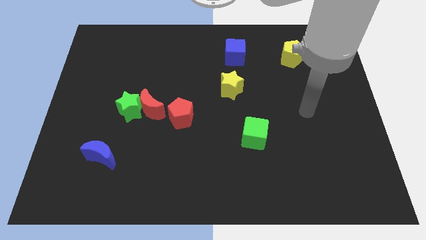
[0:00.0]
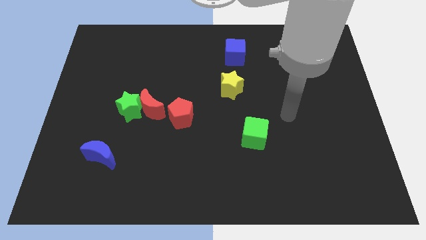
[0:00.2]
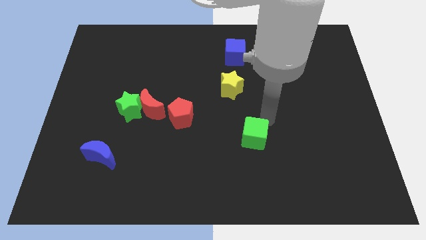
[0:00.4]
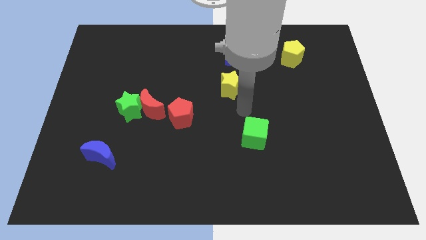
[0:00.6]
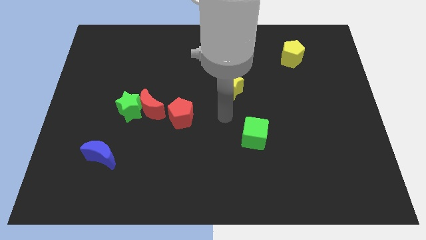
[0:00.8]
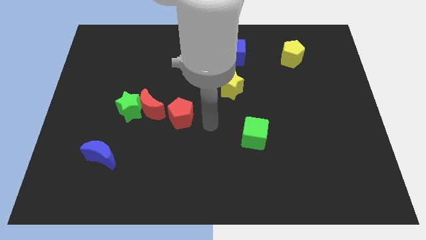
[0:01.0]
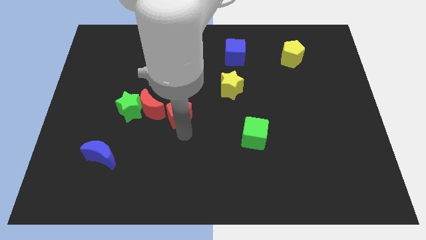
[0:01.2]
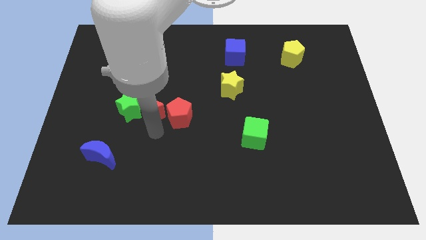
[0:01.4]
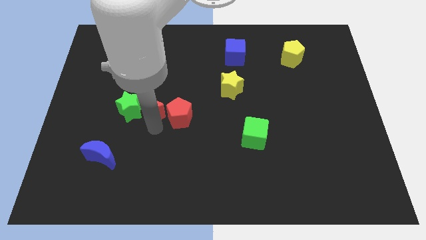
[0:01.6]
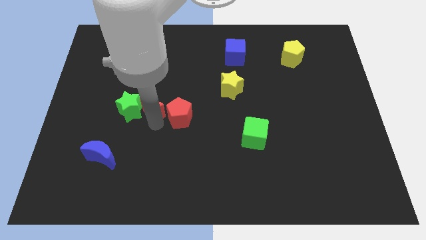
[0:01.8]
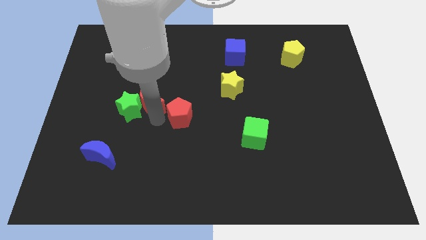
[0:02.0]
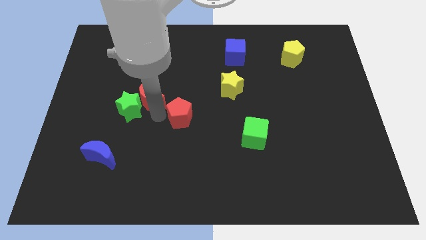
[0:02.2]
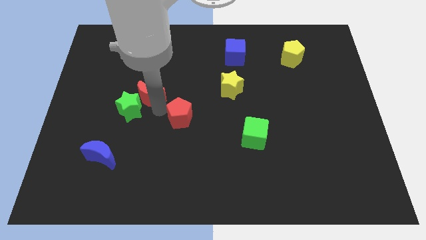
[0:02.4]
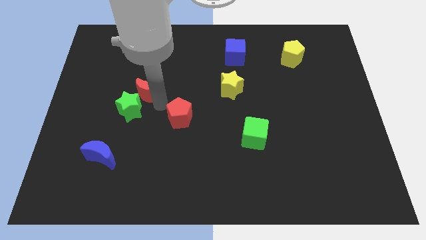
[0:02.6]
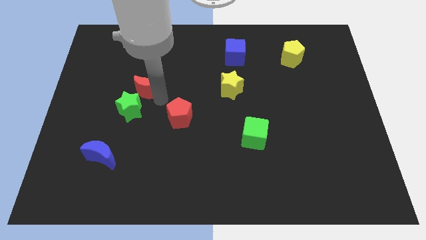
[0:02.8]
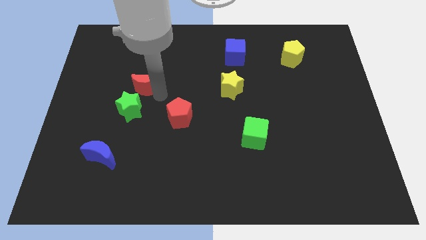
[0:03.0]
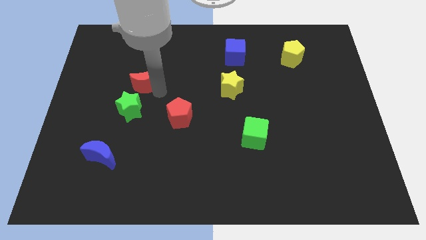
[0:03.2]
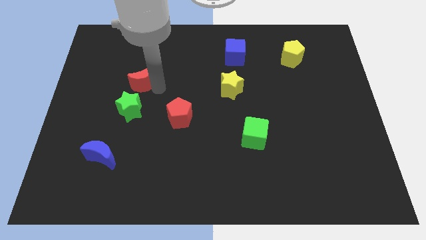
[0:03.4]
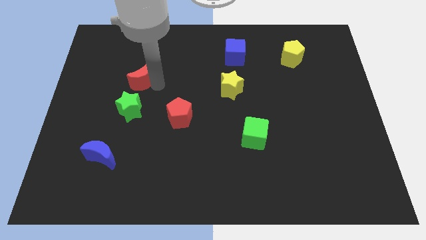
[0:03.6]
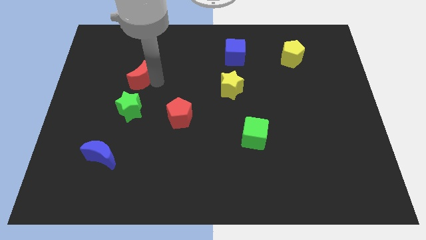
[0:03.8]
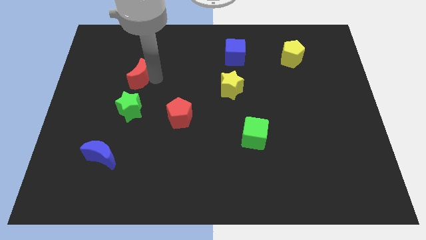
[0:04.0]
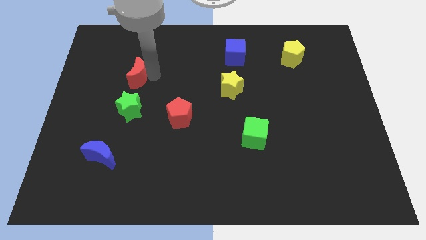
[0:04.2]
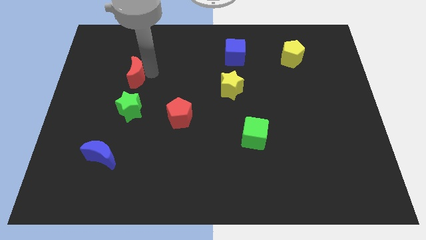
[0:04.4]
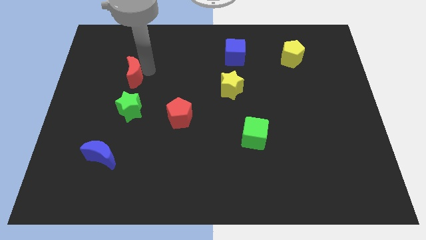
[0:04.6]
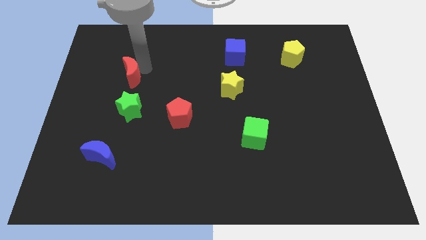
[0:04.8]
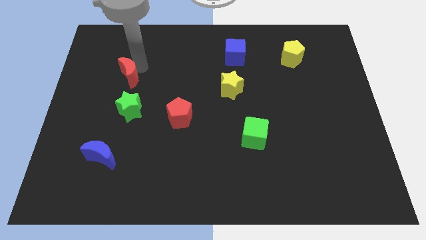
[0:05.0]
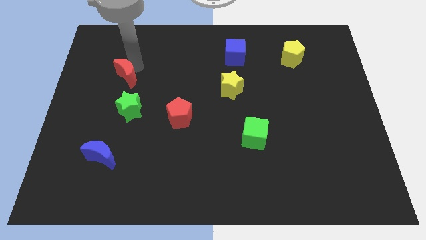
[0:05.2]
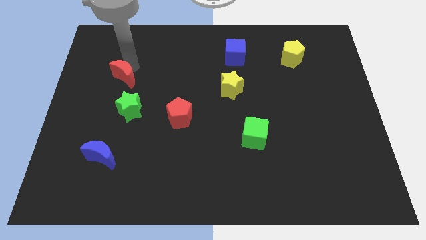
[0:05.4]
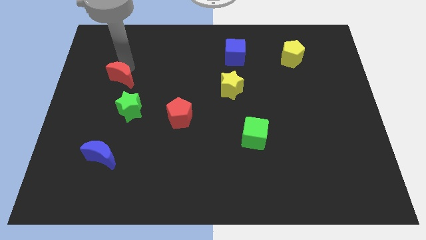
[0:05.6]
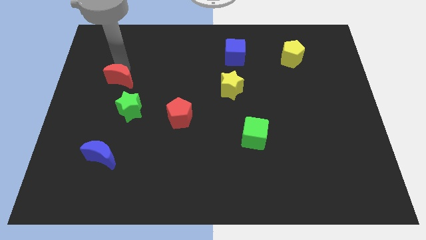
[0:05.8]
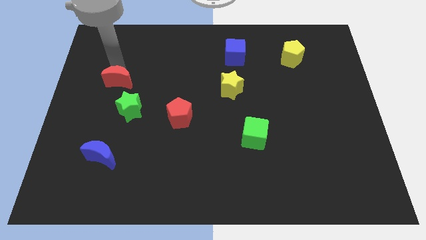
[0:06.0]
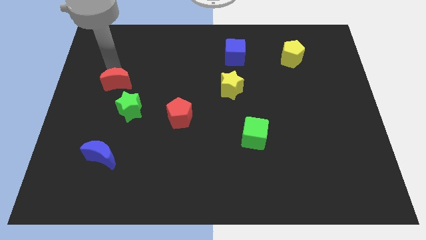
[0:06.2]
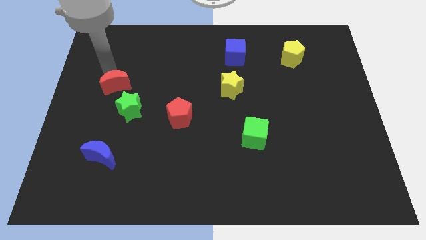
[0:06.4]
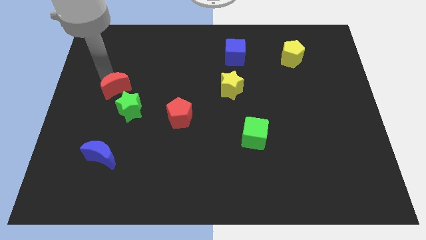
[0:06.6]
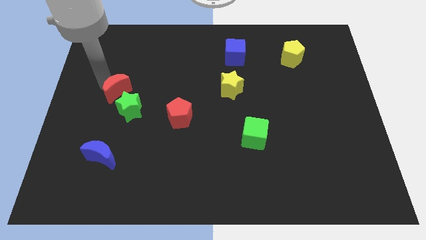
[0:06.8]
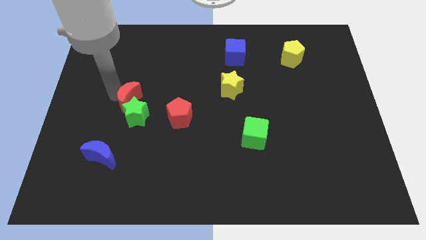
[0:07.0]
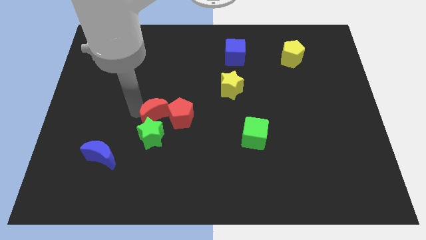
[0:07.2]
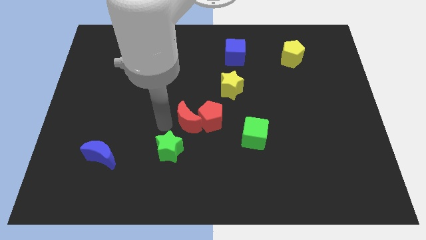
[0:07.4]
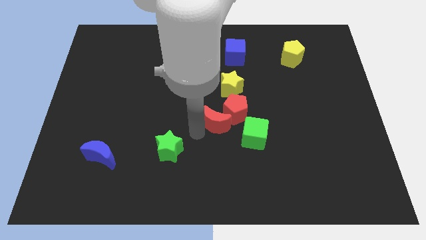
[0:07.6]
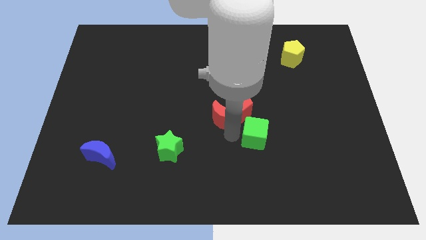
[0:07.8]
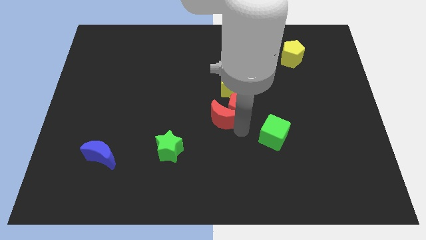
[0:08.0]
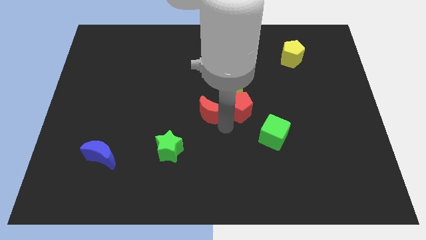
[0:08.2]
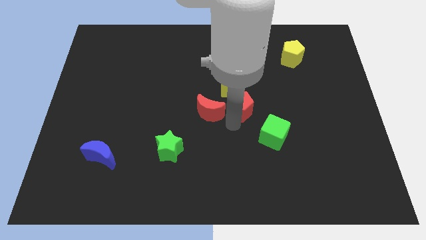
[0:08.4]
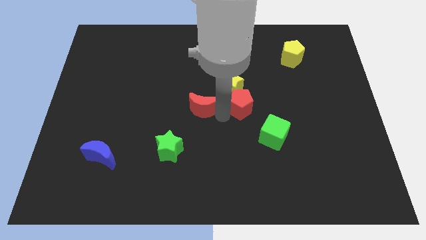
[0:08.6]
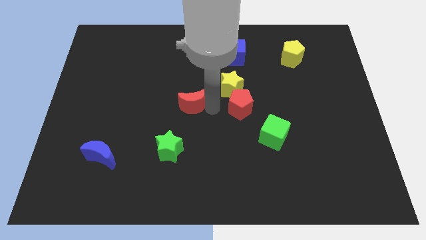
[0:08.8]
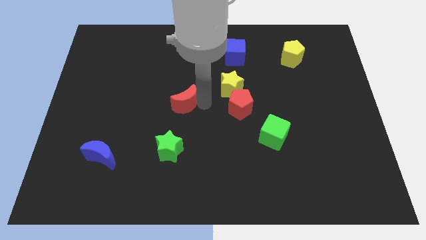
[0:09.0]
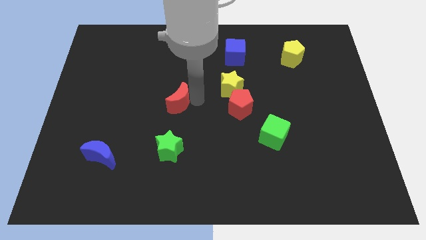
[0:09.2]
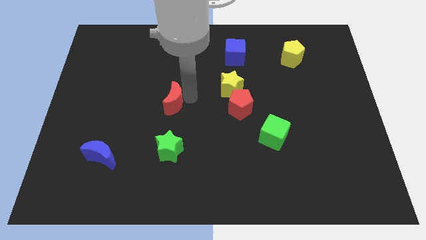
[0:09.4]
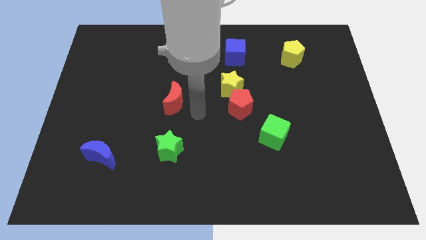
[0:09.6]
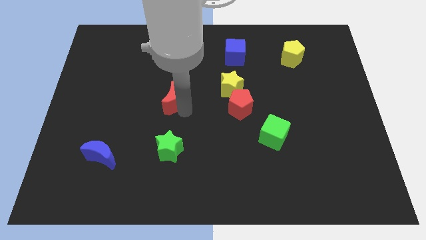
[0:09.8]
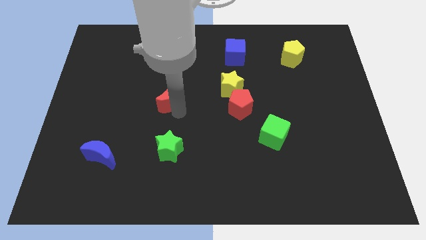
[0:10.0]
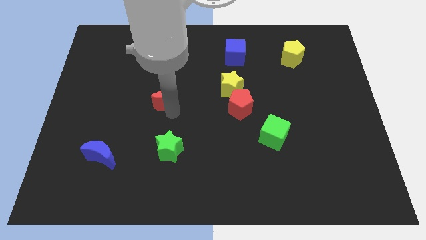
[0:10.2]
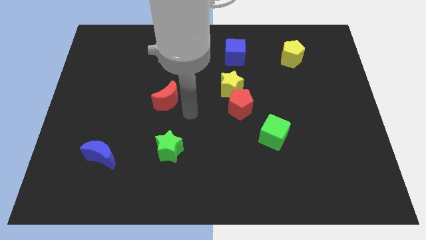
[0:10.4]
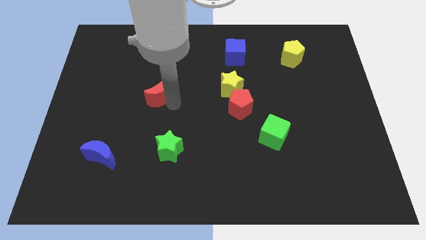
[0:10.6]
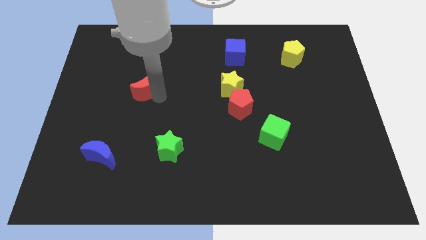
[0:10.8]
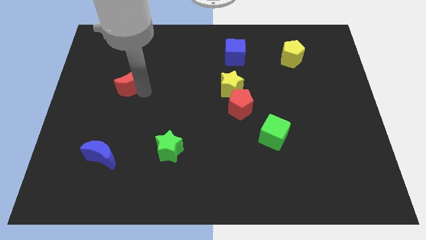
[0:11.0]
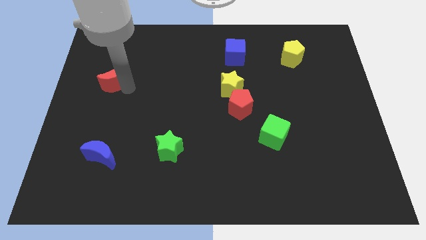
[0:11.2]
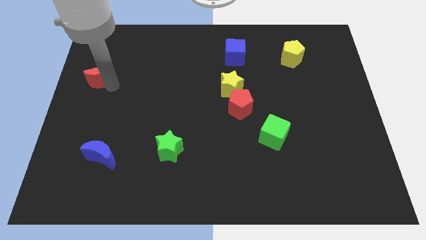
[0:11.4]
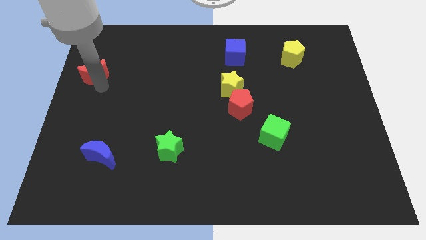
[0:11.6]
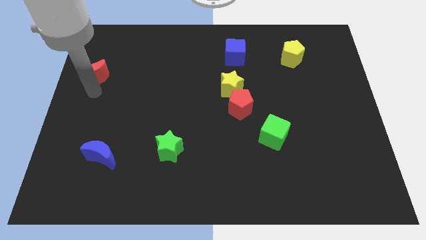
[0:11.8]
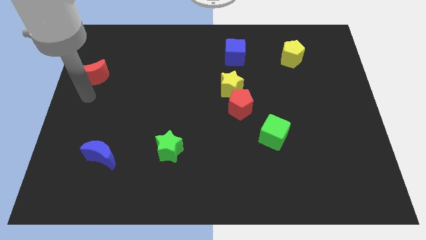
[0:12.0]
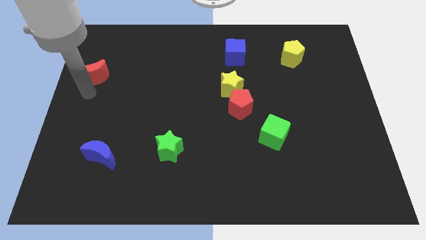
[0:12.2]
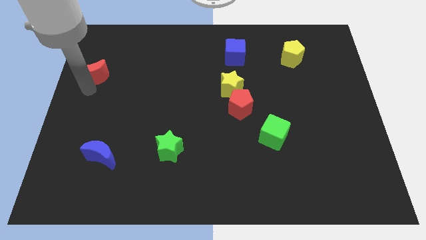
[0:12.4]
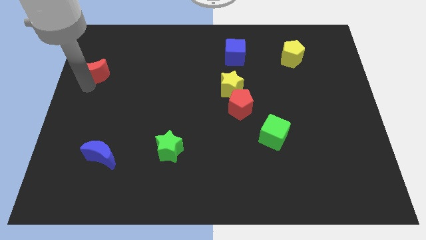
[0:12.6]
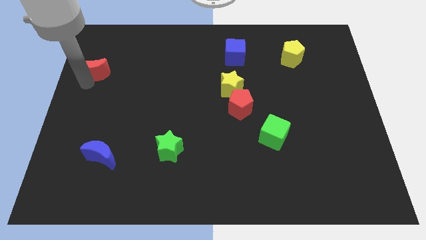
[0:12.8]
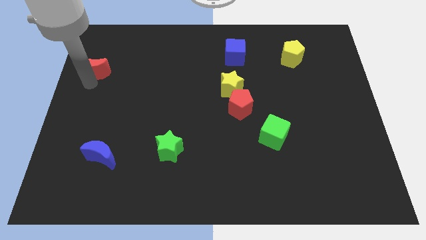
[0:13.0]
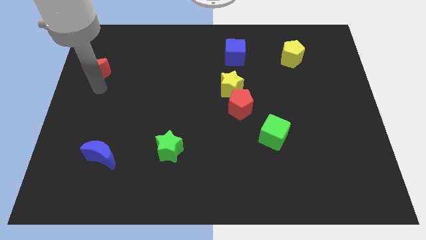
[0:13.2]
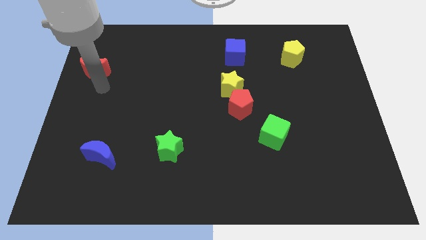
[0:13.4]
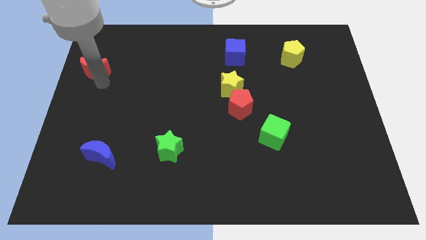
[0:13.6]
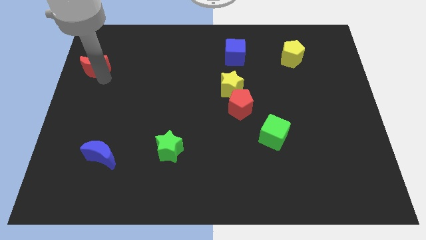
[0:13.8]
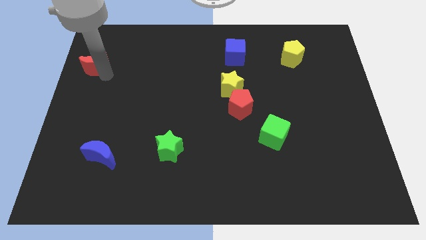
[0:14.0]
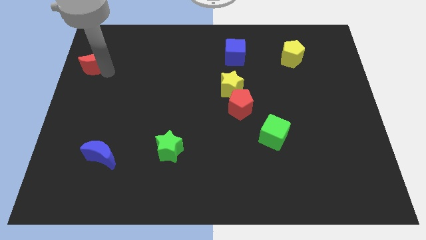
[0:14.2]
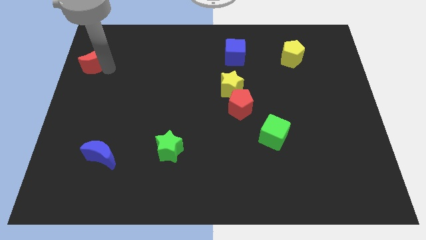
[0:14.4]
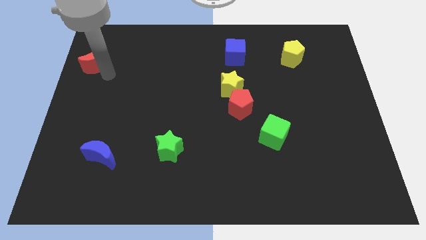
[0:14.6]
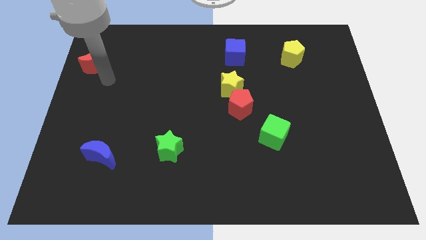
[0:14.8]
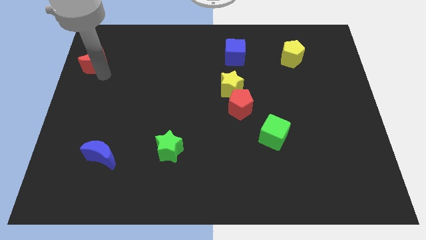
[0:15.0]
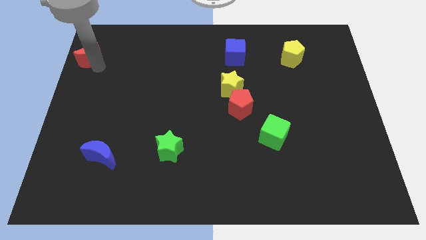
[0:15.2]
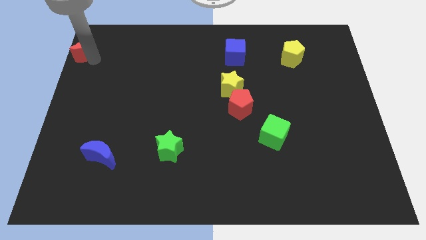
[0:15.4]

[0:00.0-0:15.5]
put the red moon to the upper left corner
